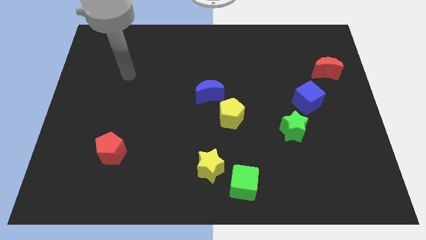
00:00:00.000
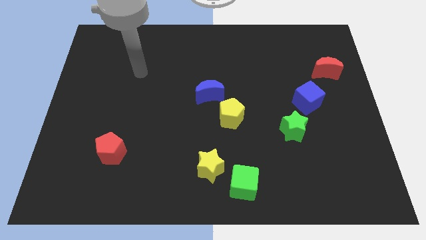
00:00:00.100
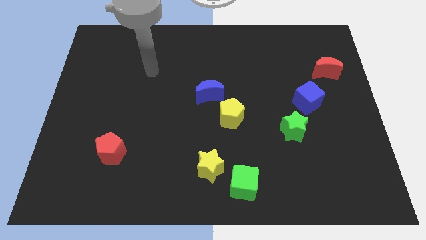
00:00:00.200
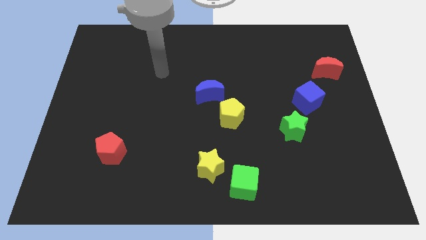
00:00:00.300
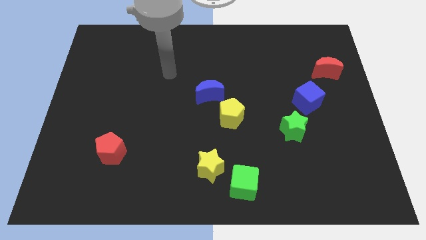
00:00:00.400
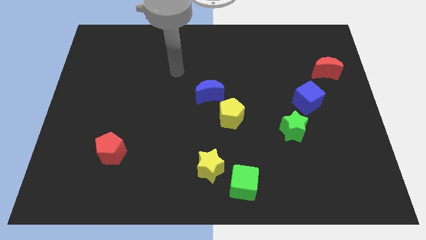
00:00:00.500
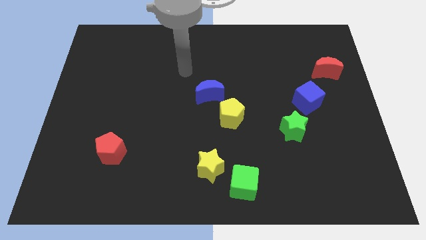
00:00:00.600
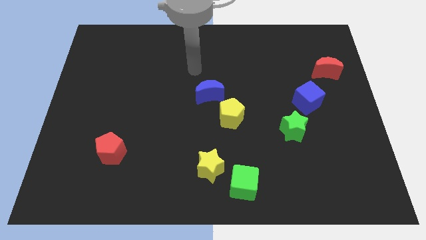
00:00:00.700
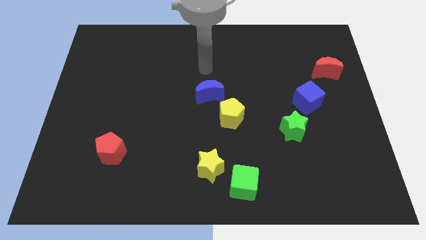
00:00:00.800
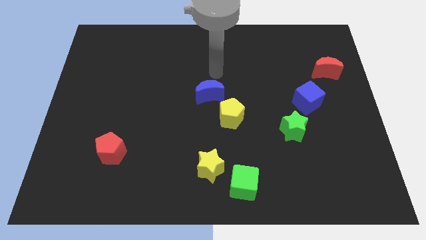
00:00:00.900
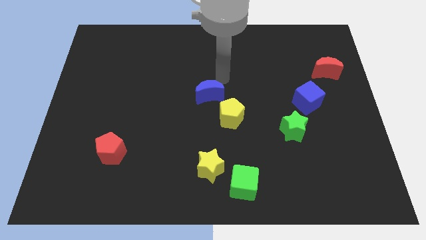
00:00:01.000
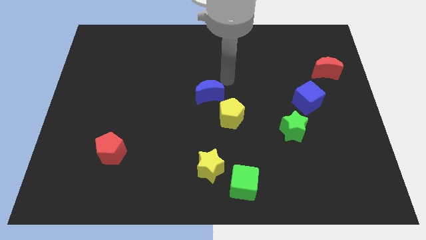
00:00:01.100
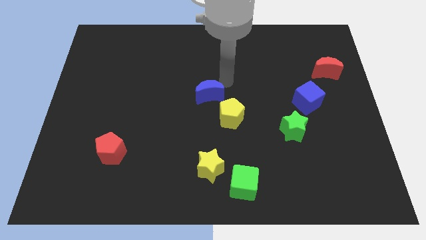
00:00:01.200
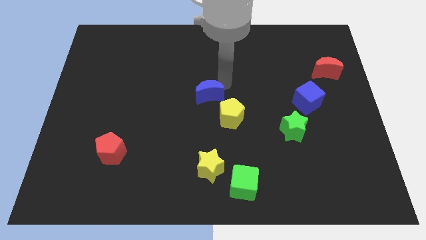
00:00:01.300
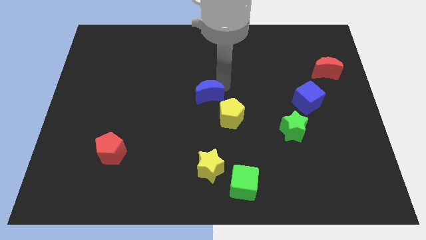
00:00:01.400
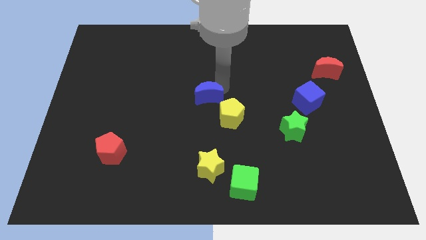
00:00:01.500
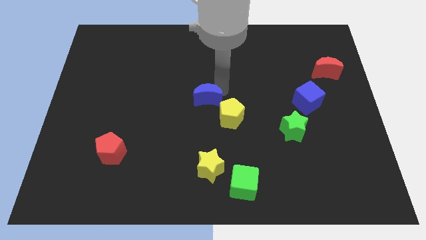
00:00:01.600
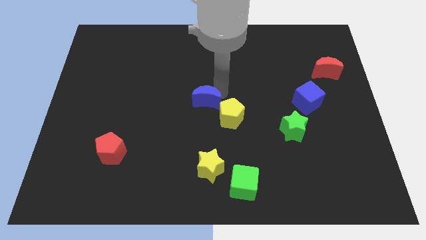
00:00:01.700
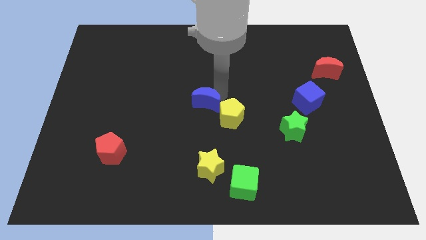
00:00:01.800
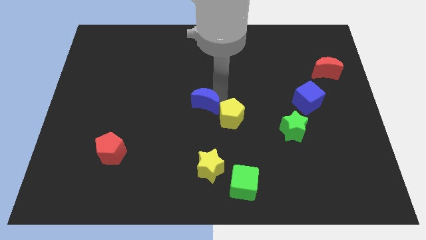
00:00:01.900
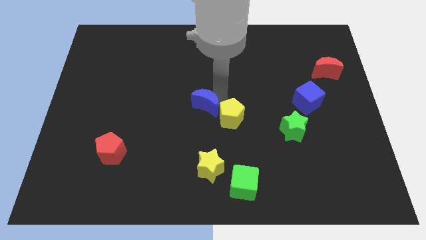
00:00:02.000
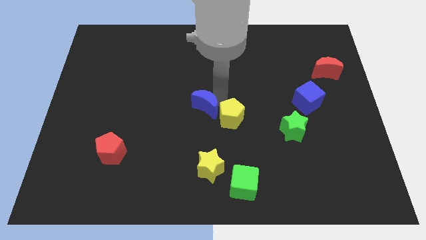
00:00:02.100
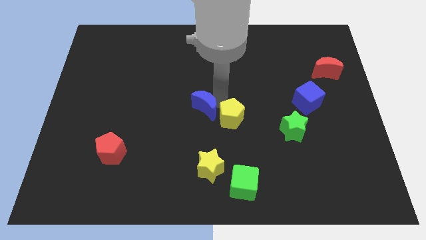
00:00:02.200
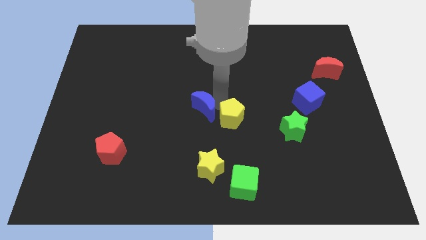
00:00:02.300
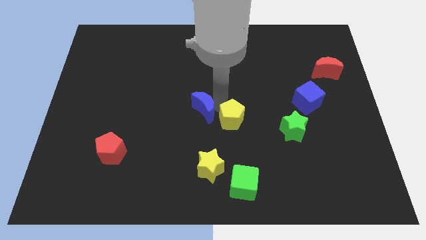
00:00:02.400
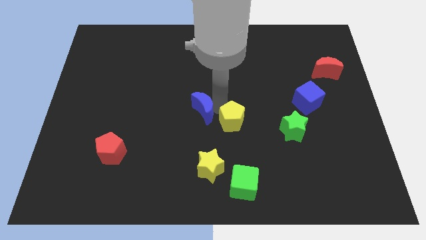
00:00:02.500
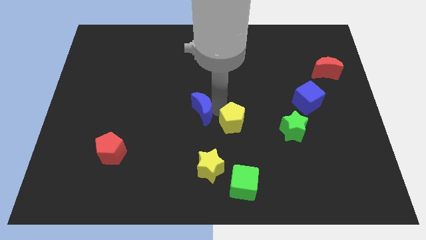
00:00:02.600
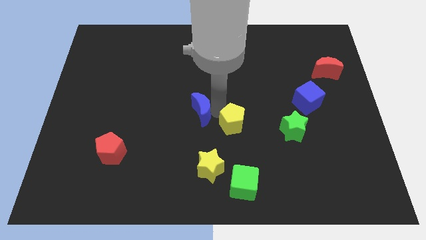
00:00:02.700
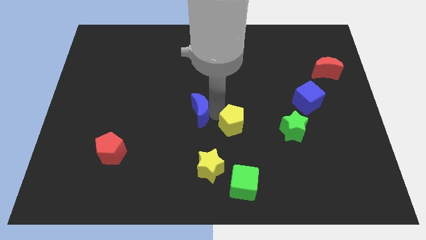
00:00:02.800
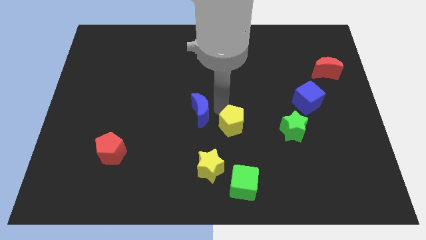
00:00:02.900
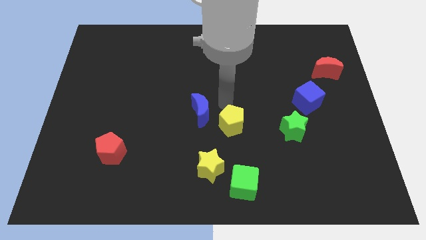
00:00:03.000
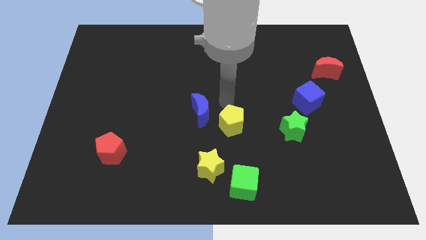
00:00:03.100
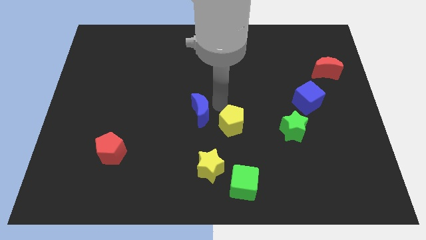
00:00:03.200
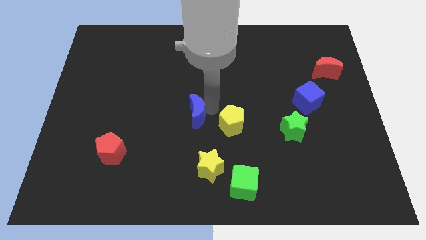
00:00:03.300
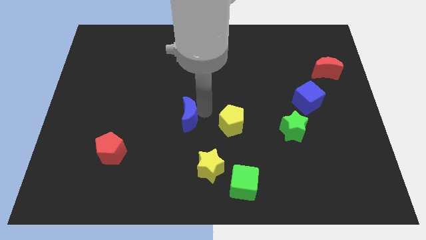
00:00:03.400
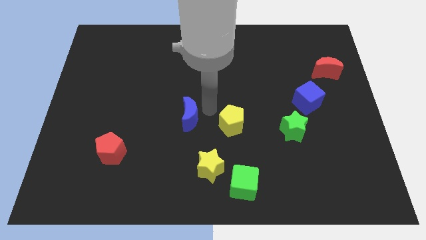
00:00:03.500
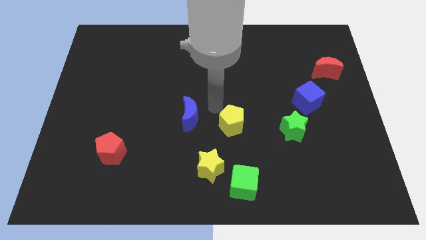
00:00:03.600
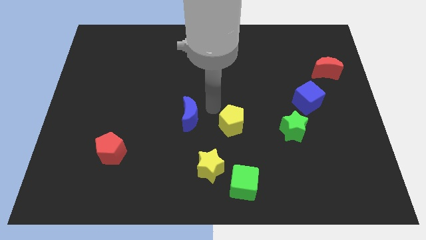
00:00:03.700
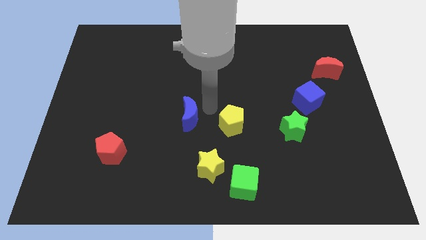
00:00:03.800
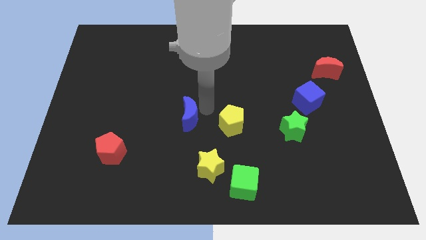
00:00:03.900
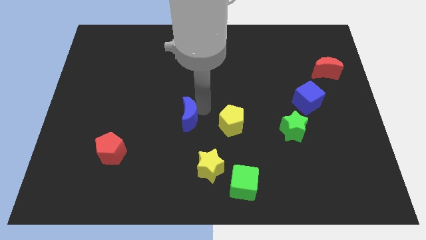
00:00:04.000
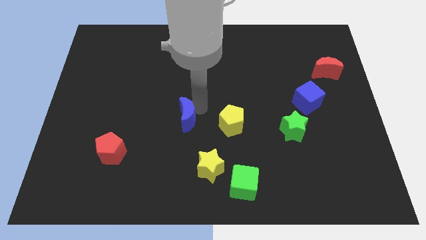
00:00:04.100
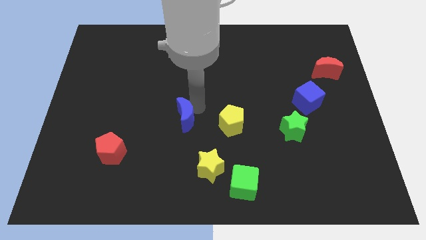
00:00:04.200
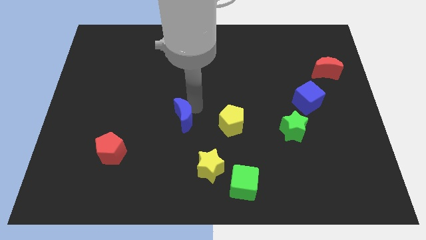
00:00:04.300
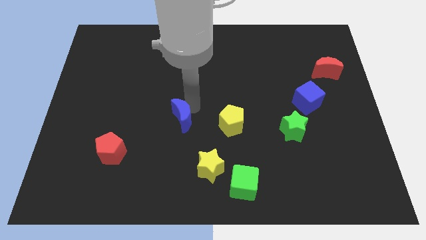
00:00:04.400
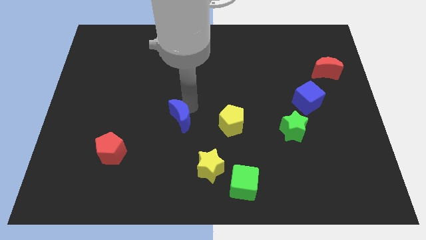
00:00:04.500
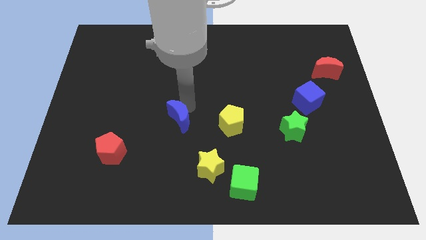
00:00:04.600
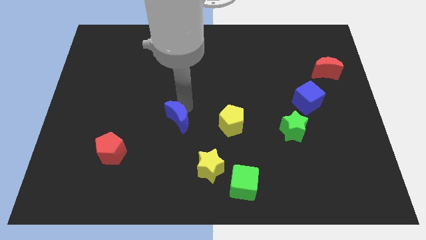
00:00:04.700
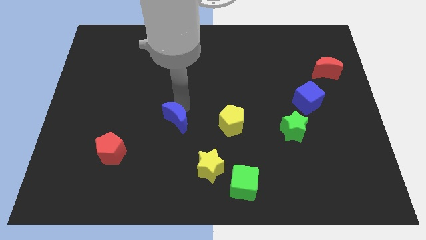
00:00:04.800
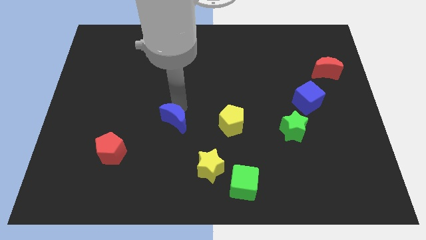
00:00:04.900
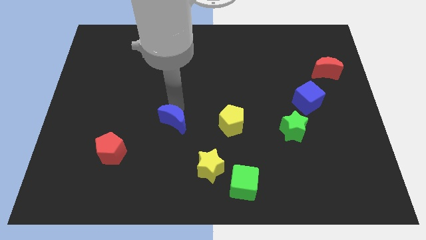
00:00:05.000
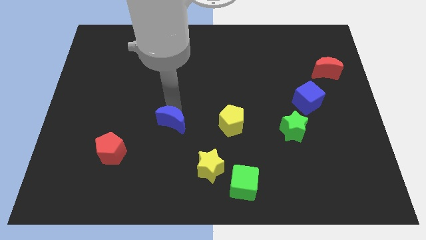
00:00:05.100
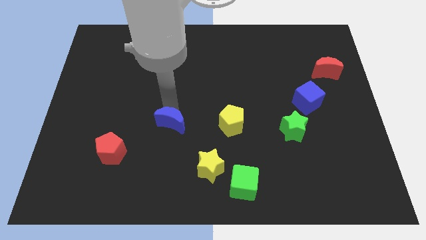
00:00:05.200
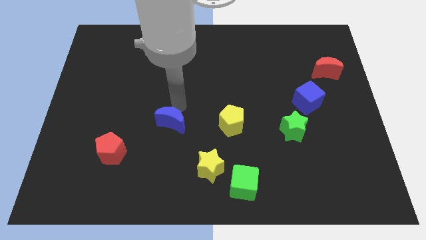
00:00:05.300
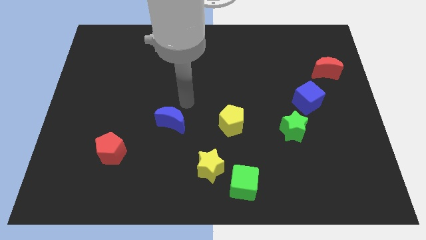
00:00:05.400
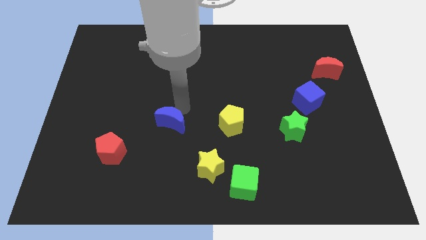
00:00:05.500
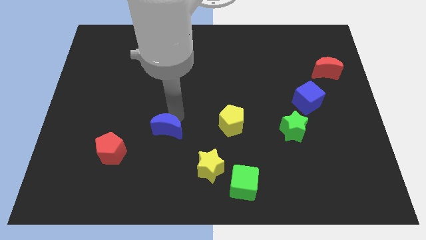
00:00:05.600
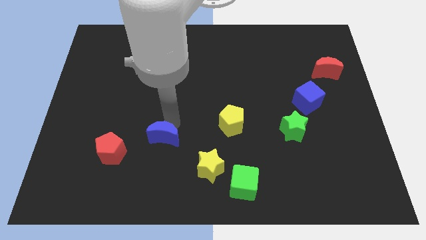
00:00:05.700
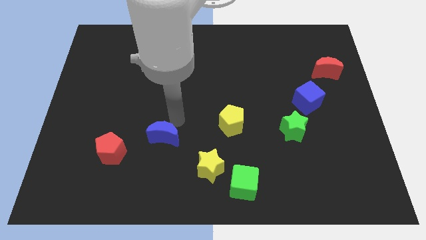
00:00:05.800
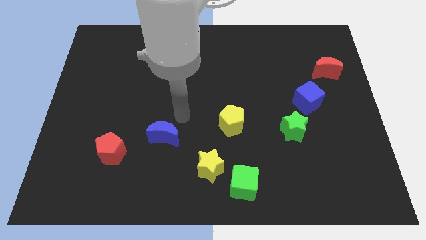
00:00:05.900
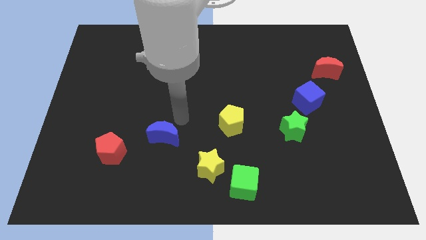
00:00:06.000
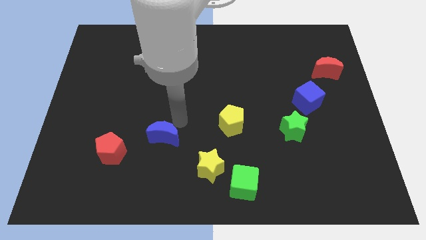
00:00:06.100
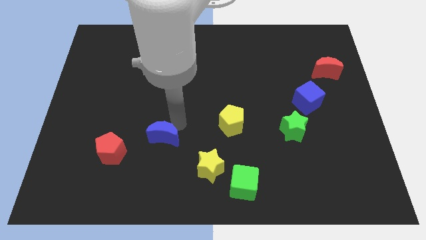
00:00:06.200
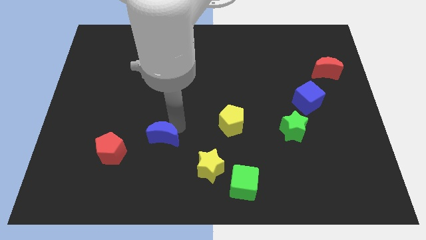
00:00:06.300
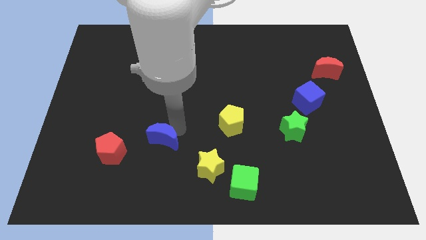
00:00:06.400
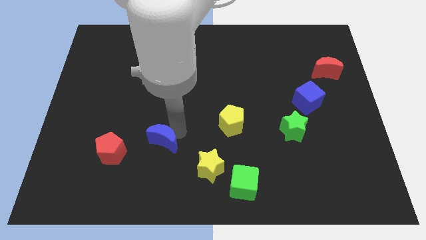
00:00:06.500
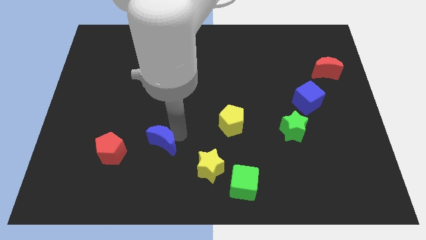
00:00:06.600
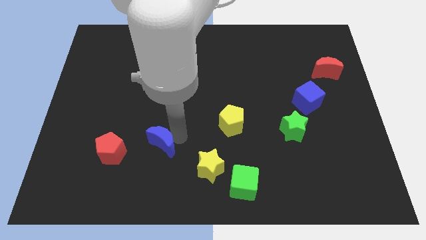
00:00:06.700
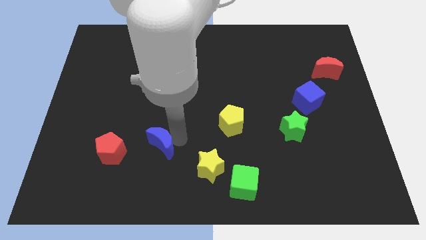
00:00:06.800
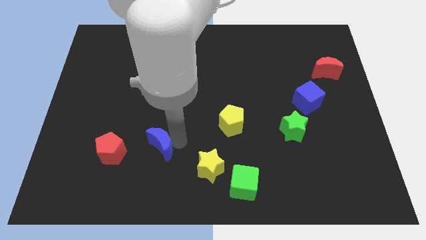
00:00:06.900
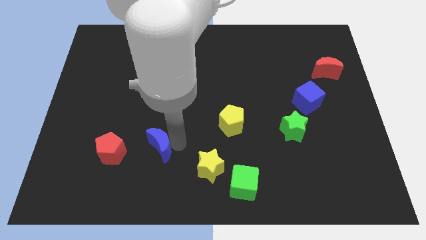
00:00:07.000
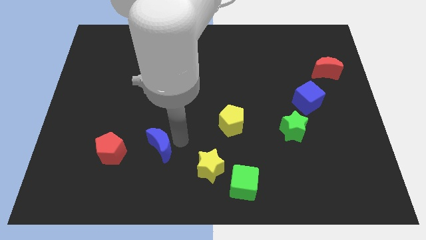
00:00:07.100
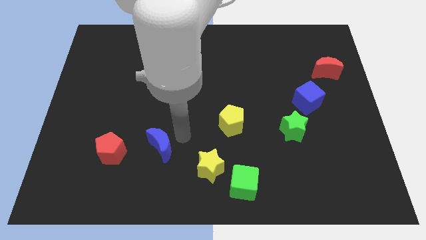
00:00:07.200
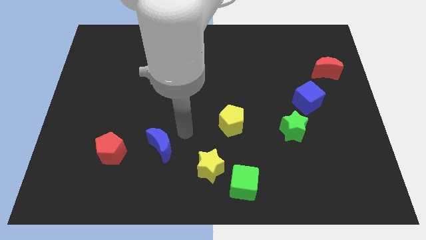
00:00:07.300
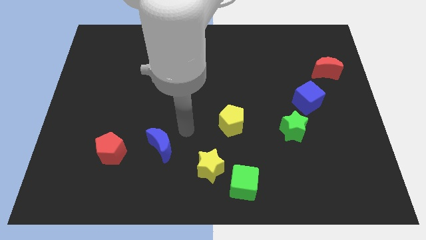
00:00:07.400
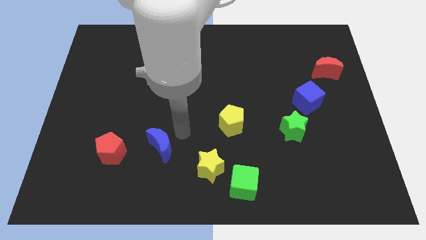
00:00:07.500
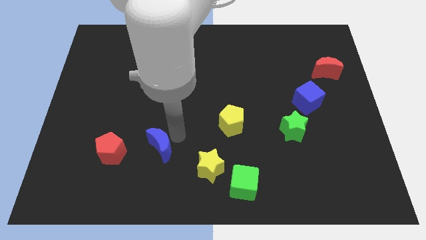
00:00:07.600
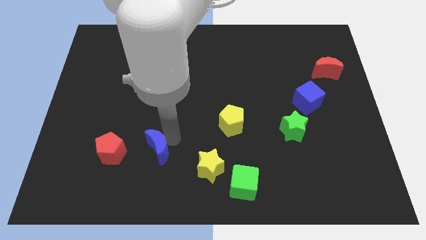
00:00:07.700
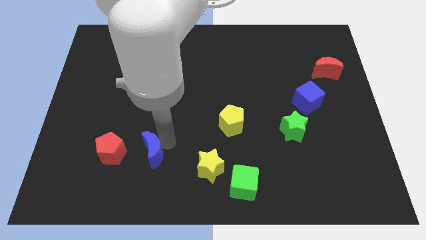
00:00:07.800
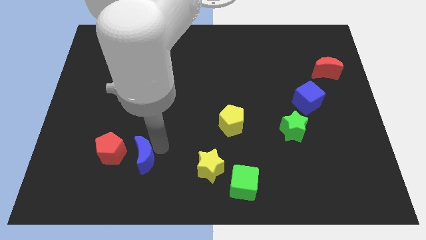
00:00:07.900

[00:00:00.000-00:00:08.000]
slide the blue moon down and left
